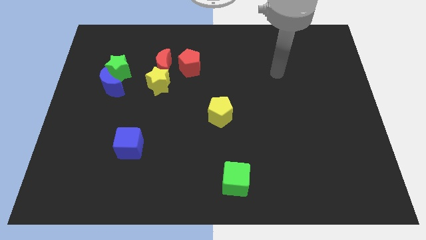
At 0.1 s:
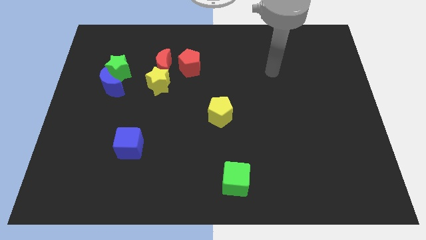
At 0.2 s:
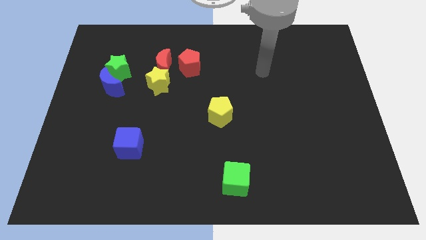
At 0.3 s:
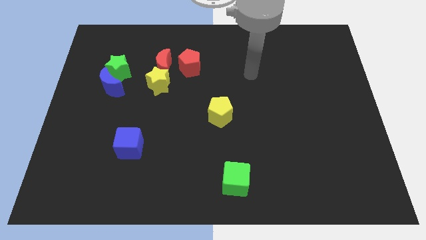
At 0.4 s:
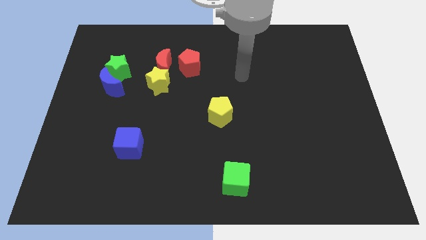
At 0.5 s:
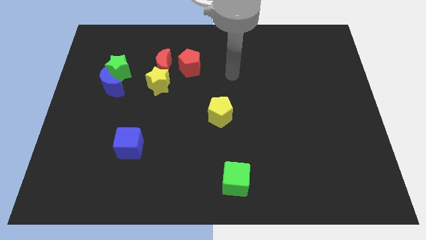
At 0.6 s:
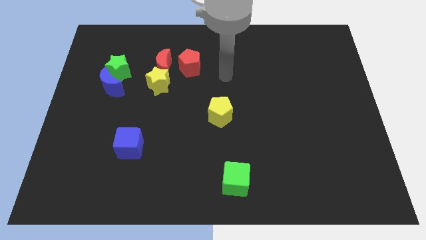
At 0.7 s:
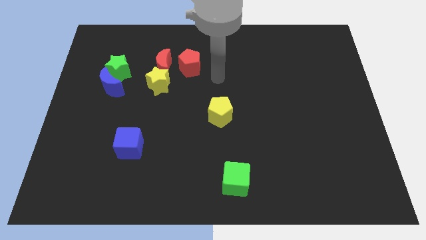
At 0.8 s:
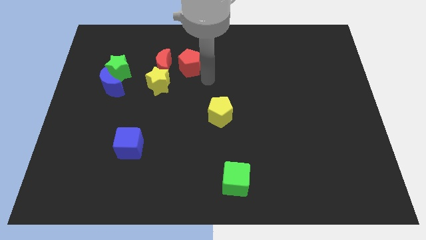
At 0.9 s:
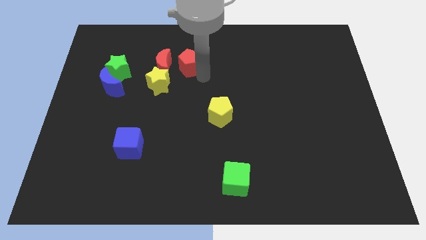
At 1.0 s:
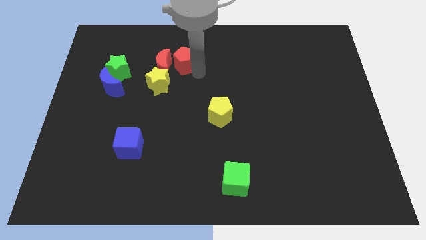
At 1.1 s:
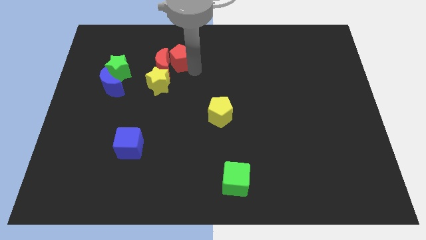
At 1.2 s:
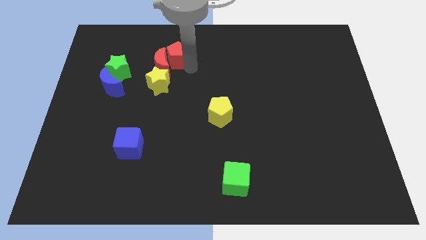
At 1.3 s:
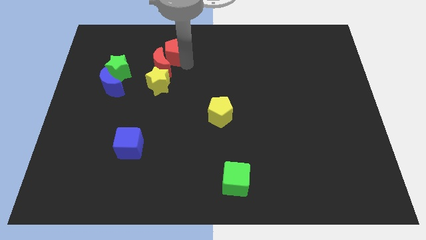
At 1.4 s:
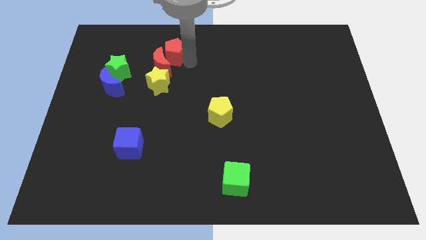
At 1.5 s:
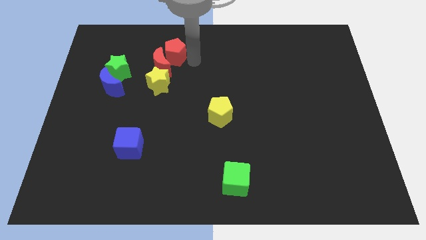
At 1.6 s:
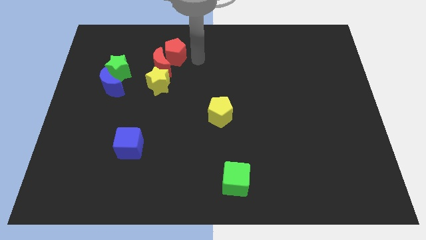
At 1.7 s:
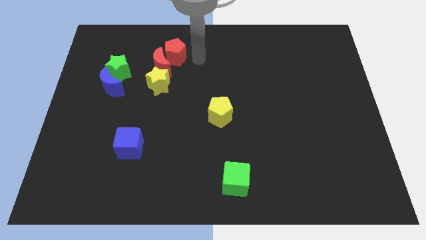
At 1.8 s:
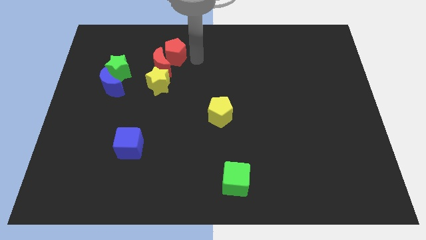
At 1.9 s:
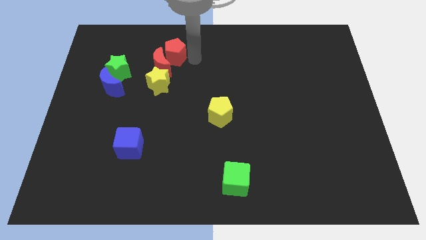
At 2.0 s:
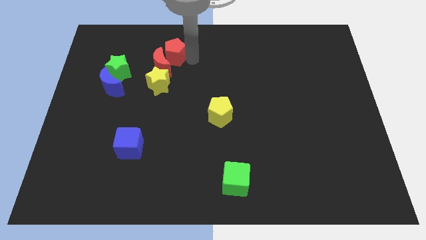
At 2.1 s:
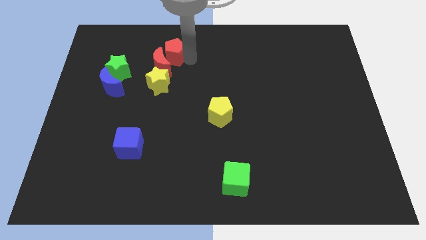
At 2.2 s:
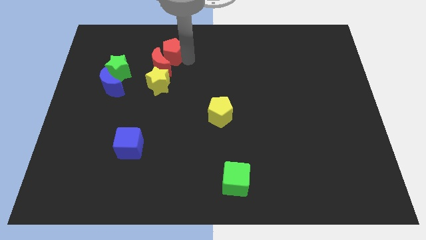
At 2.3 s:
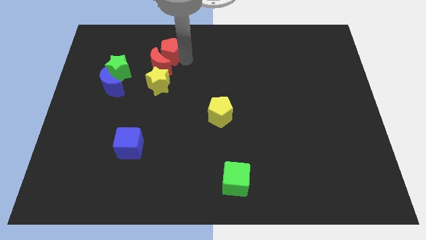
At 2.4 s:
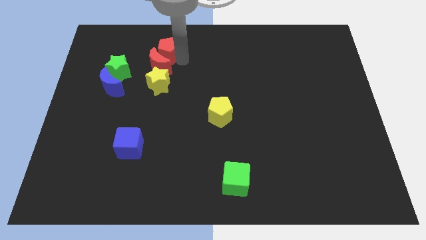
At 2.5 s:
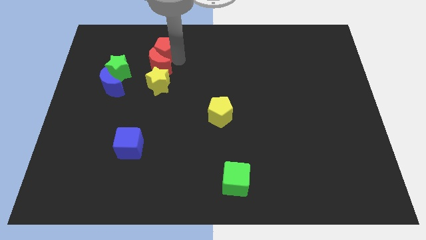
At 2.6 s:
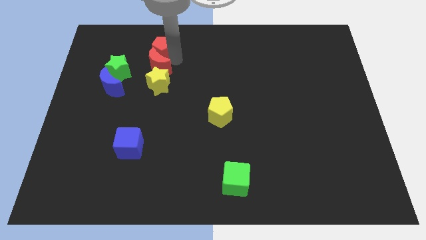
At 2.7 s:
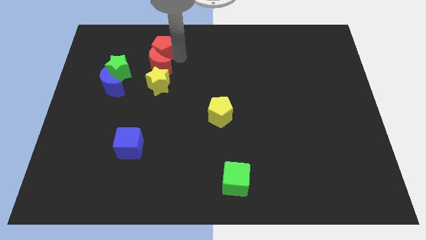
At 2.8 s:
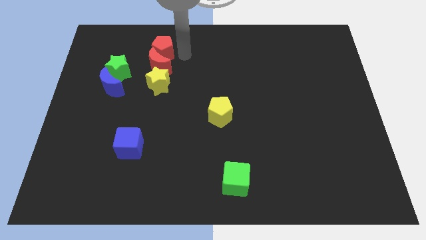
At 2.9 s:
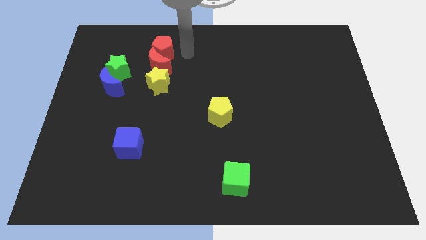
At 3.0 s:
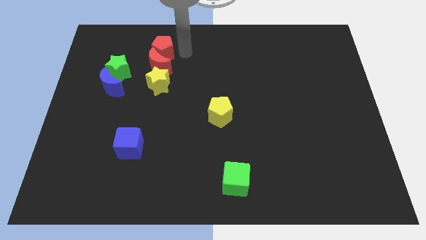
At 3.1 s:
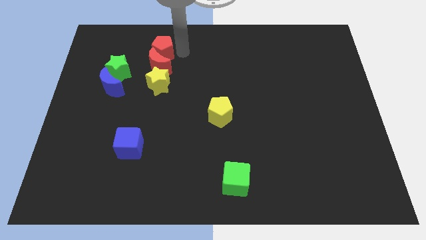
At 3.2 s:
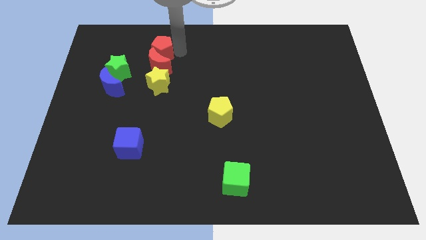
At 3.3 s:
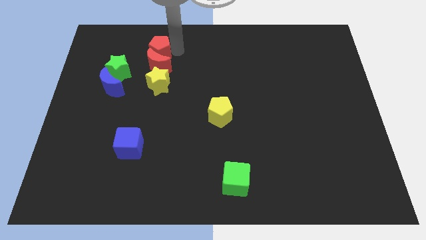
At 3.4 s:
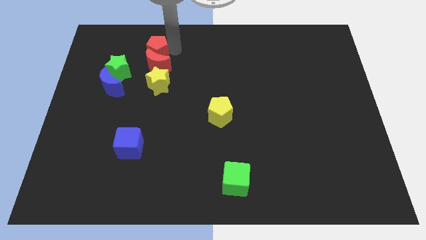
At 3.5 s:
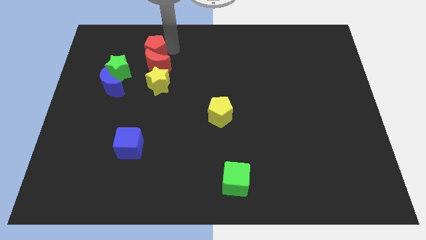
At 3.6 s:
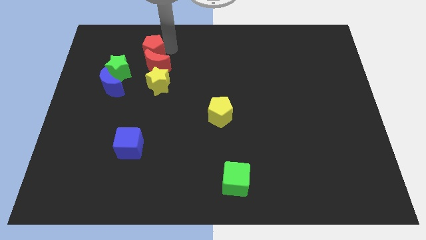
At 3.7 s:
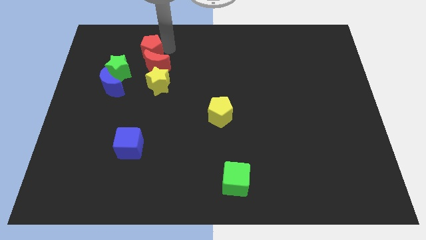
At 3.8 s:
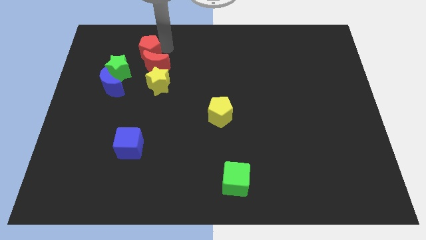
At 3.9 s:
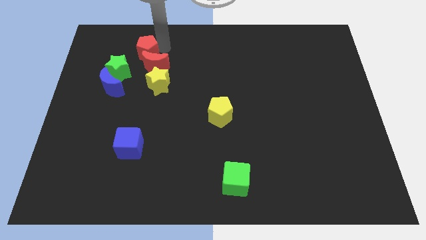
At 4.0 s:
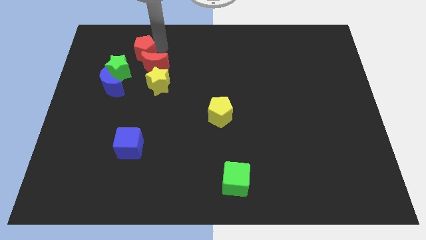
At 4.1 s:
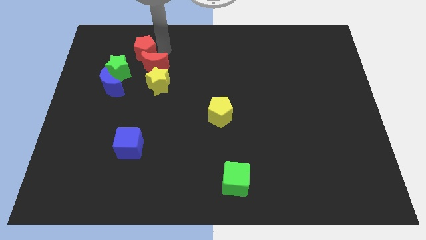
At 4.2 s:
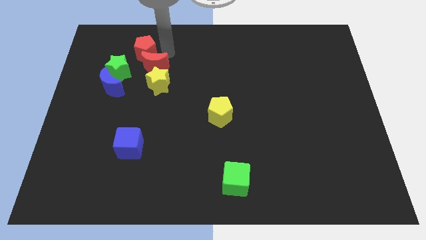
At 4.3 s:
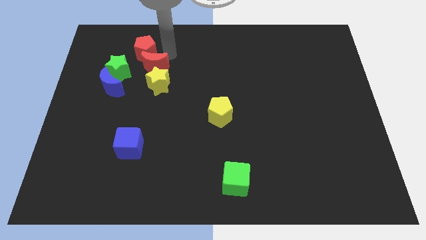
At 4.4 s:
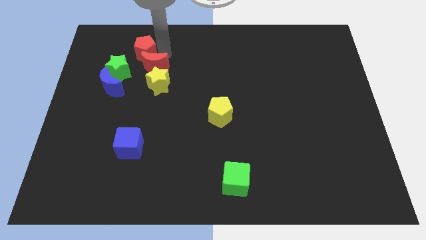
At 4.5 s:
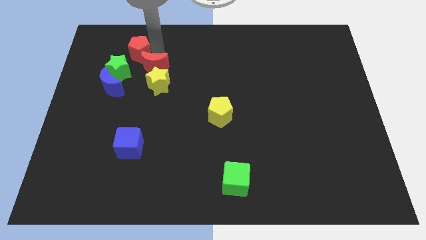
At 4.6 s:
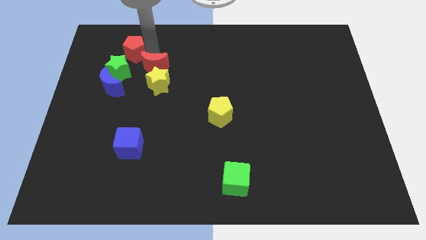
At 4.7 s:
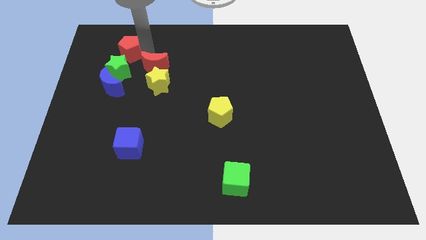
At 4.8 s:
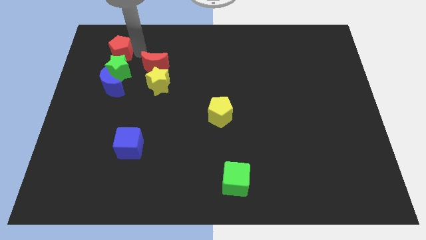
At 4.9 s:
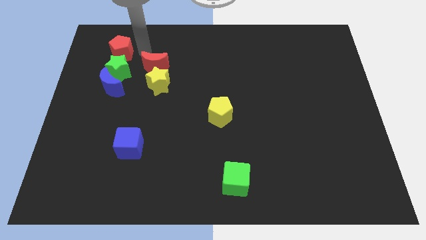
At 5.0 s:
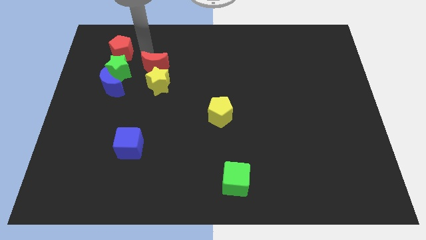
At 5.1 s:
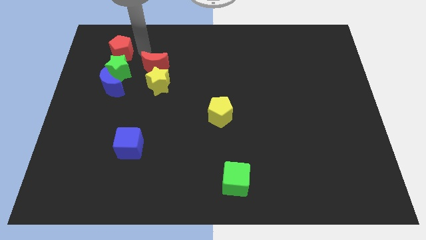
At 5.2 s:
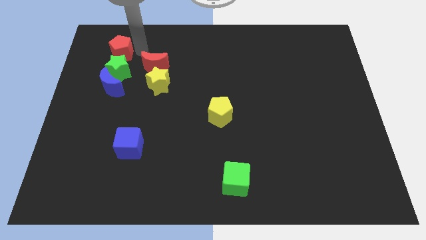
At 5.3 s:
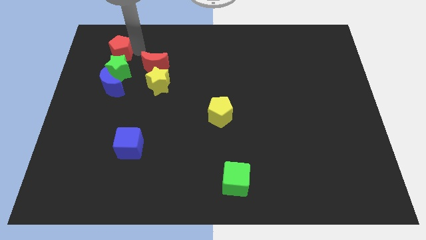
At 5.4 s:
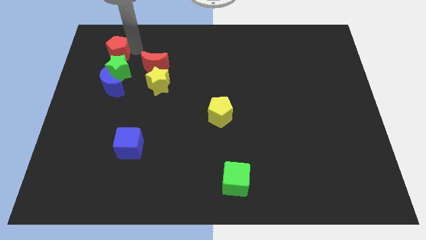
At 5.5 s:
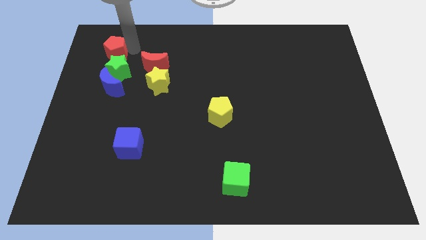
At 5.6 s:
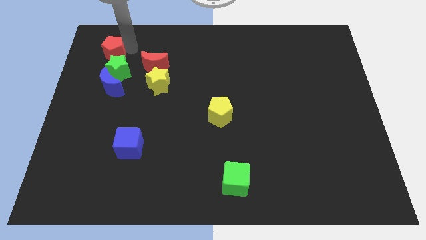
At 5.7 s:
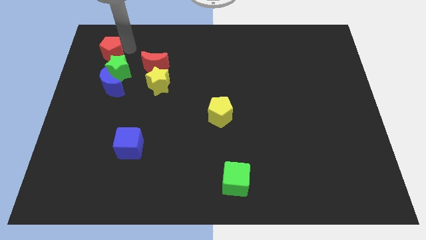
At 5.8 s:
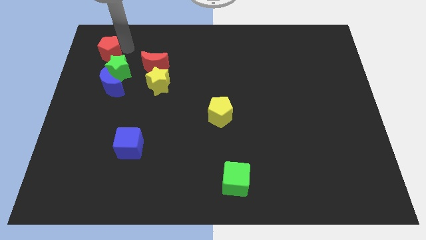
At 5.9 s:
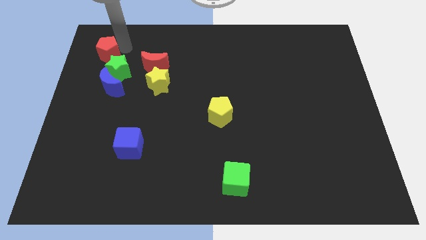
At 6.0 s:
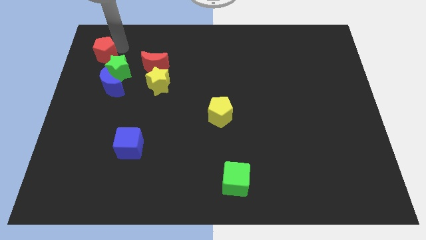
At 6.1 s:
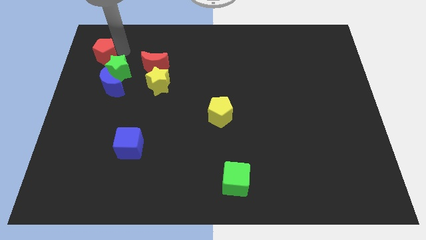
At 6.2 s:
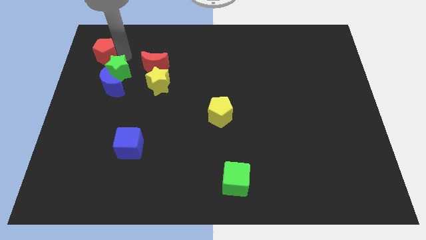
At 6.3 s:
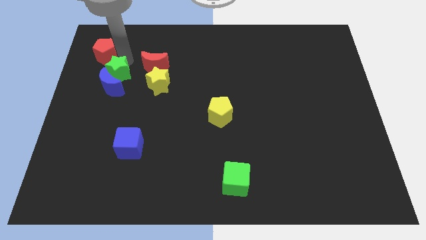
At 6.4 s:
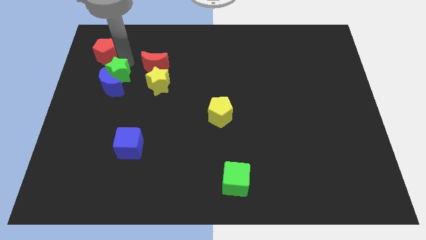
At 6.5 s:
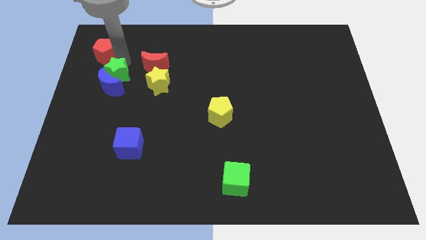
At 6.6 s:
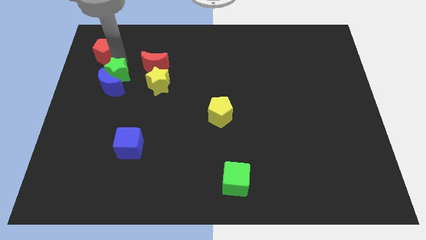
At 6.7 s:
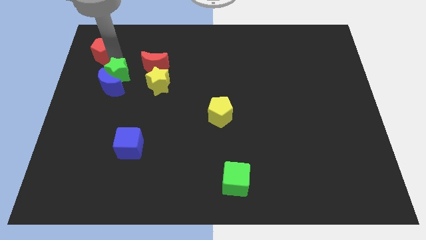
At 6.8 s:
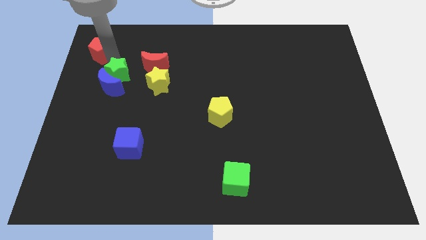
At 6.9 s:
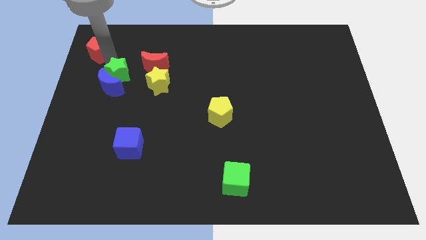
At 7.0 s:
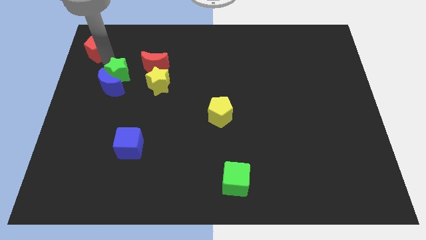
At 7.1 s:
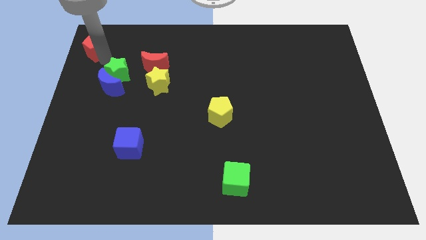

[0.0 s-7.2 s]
put the red pentagon to the top left of the board
